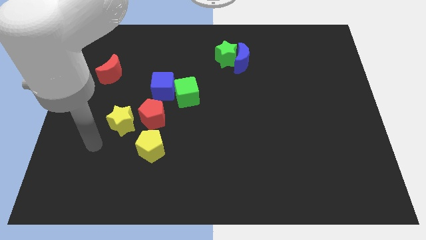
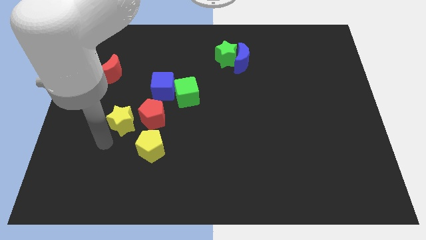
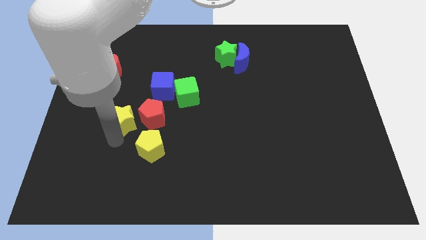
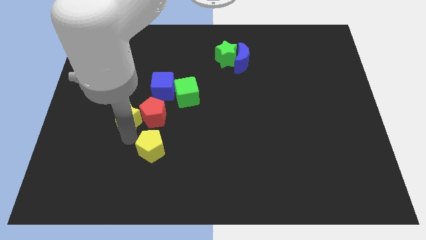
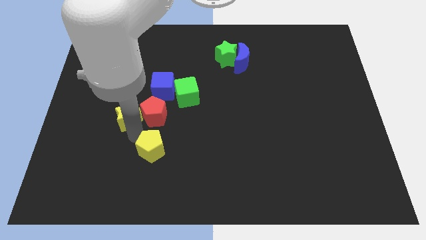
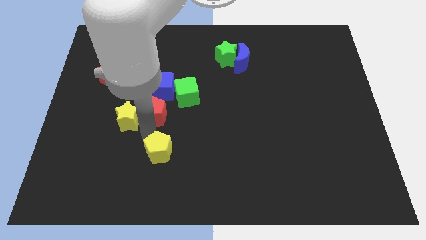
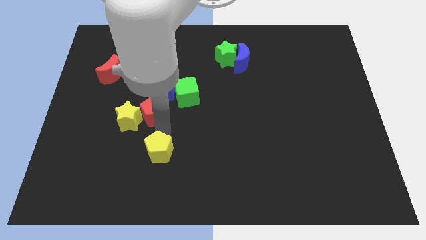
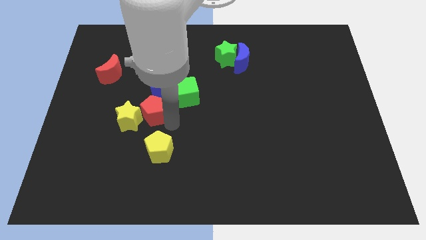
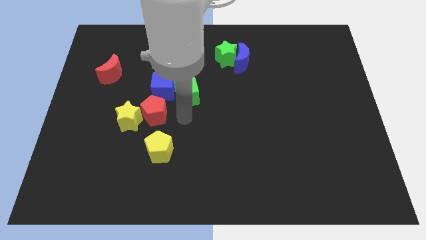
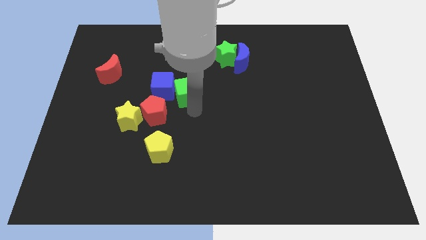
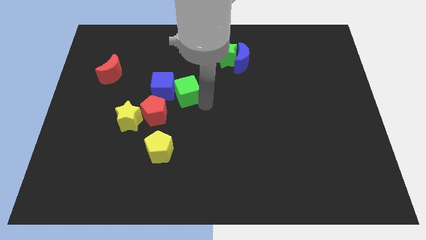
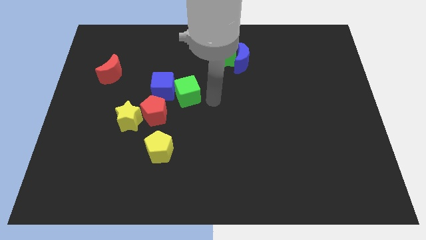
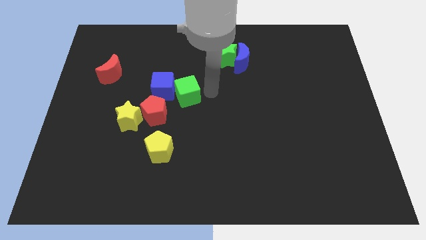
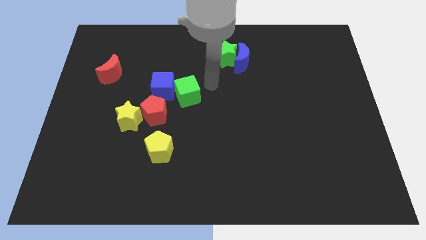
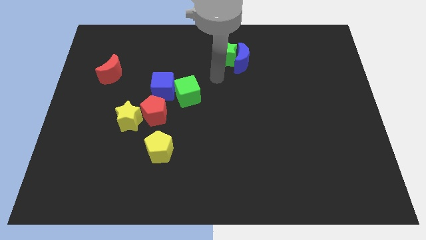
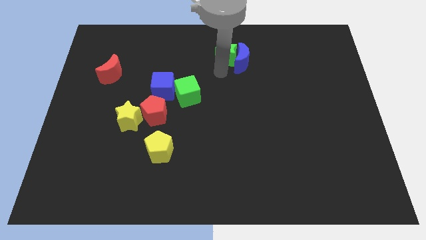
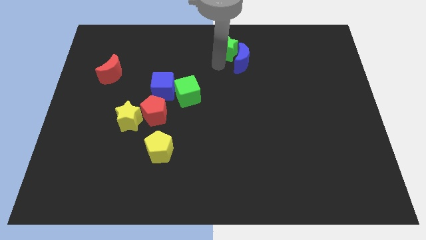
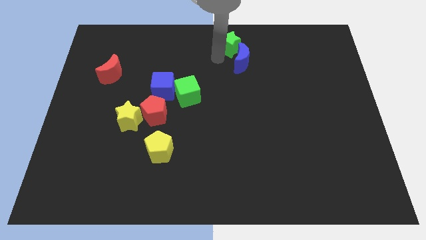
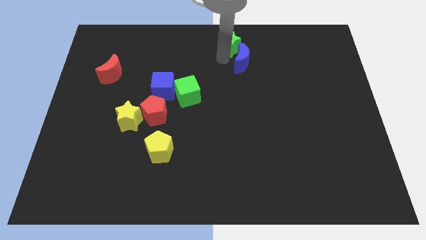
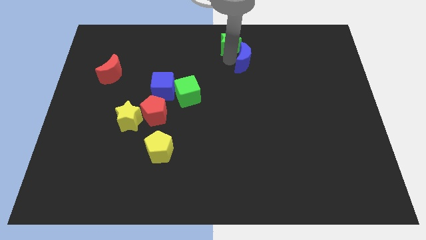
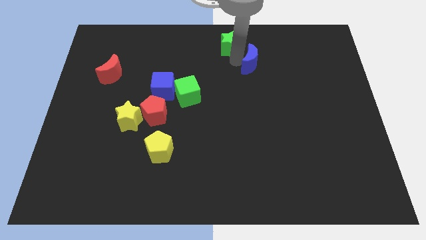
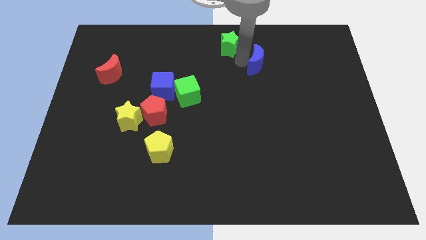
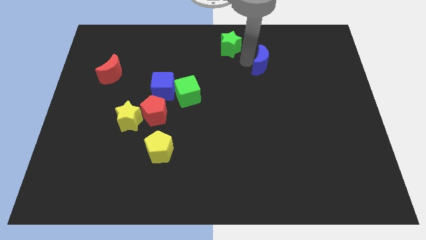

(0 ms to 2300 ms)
move the blue moon away from the green star

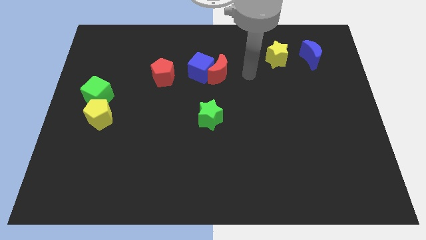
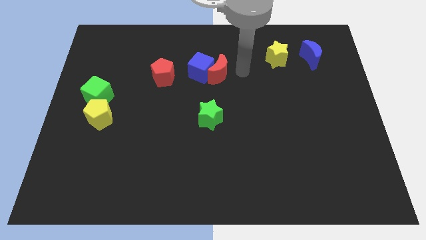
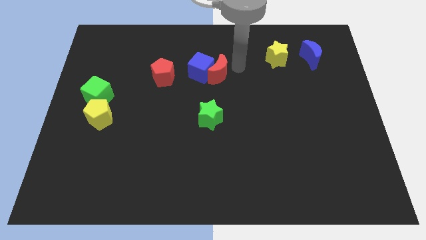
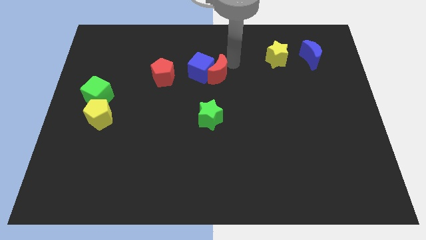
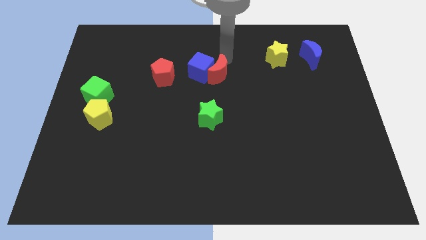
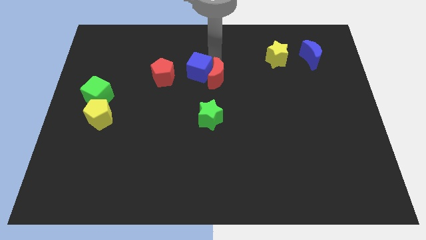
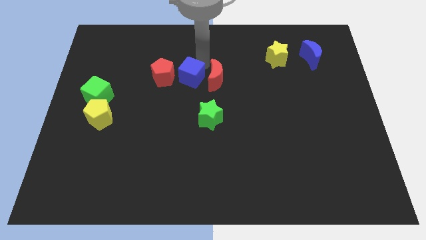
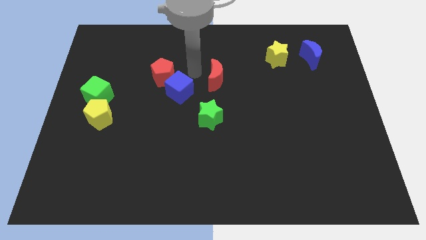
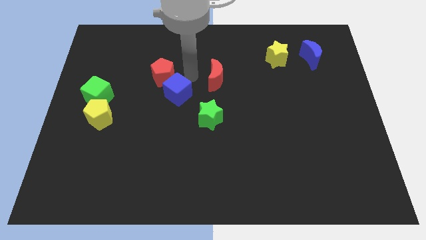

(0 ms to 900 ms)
pull the red moon apart from the blue cube

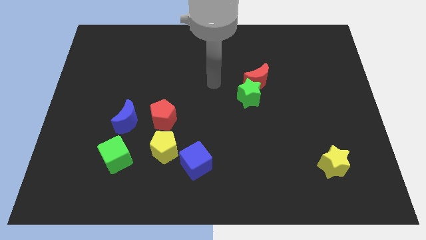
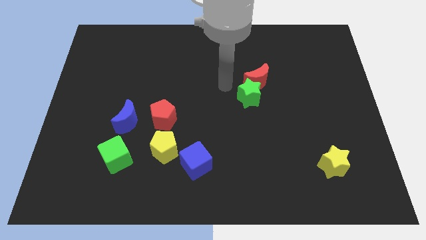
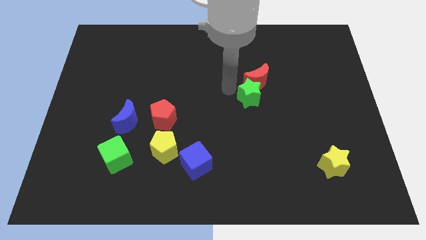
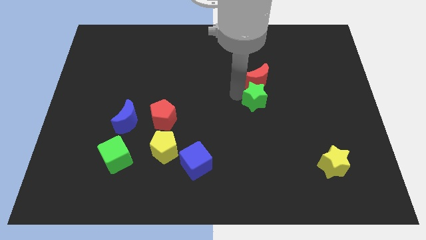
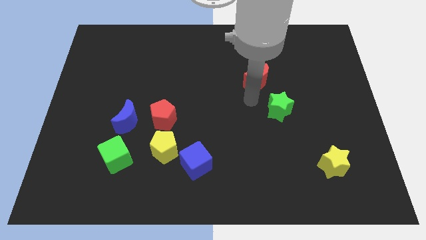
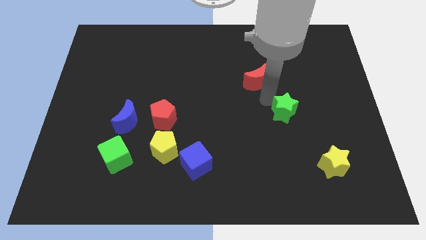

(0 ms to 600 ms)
pull the red moon apart from the green star

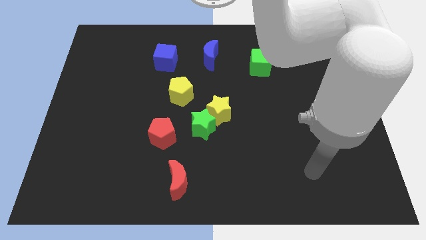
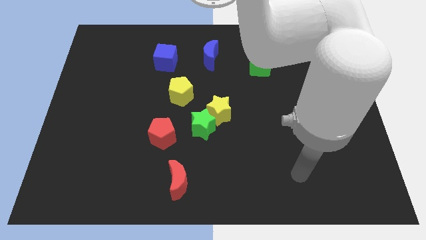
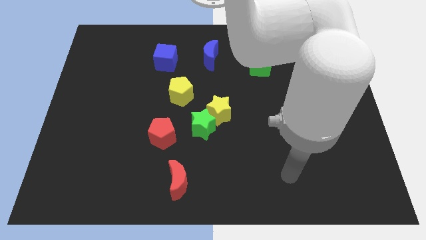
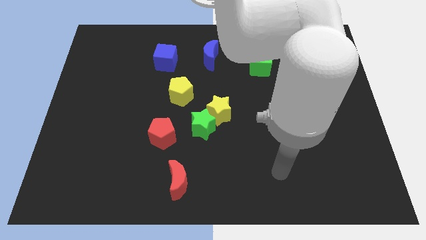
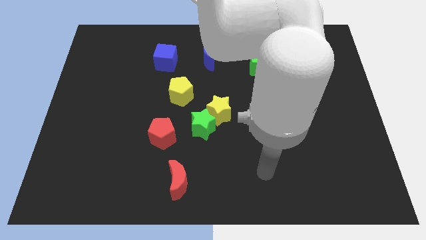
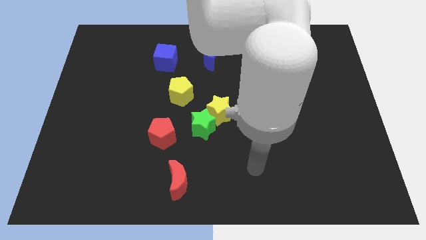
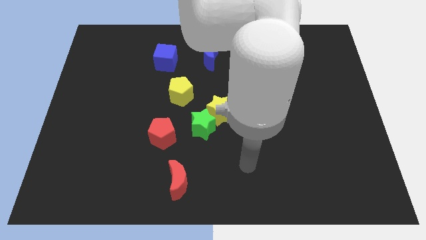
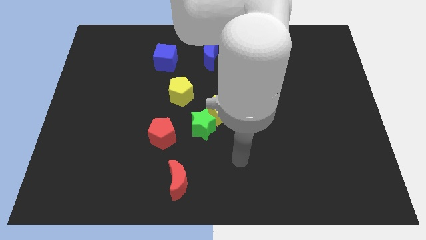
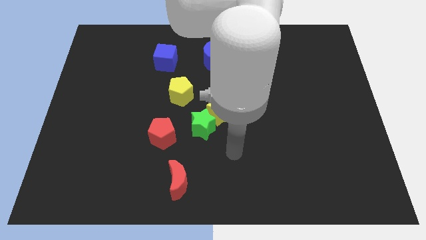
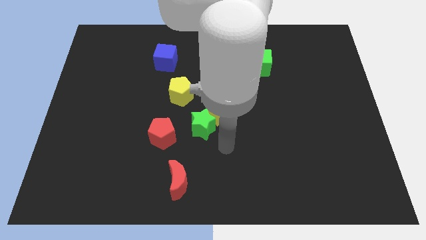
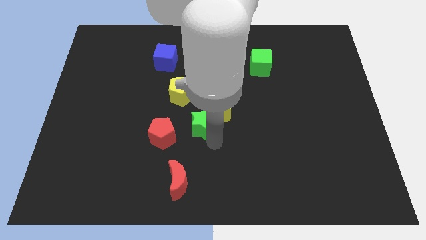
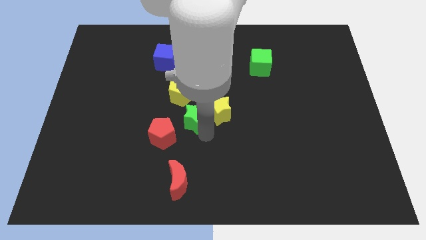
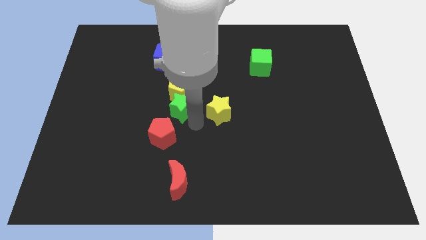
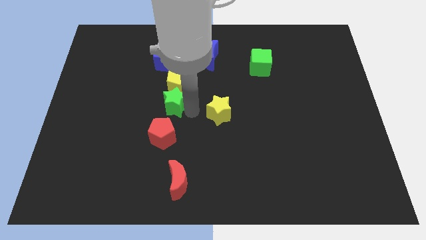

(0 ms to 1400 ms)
pull the yellow star apart from the green star

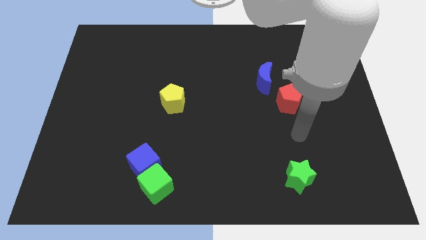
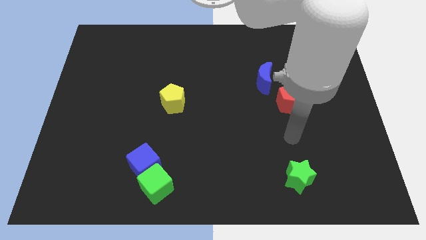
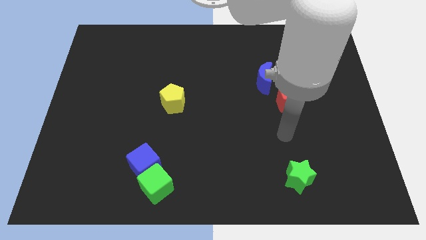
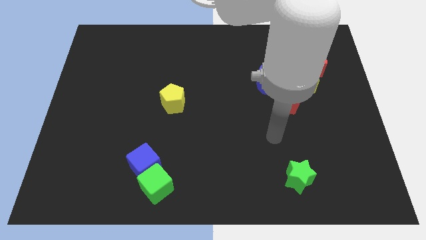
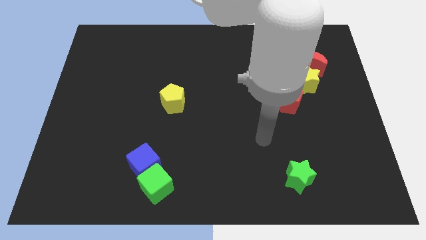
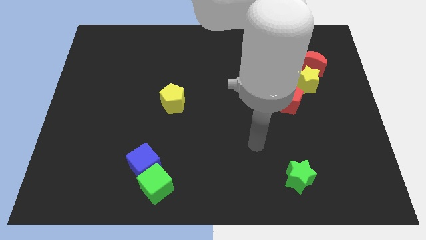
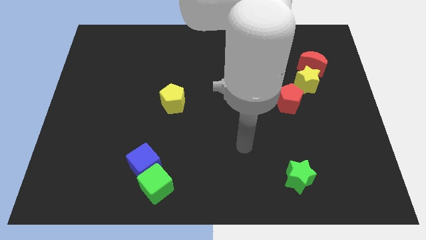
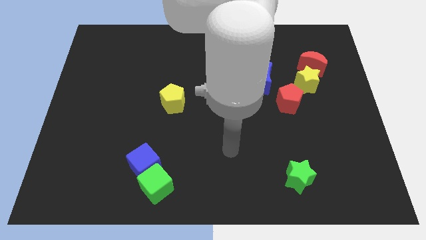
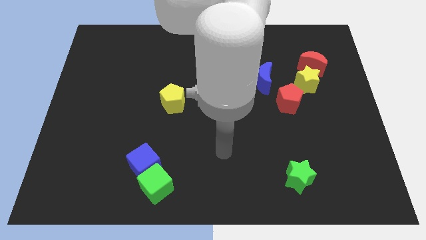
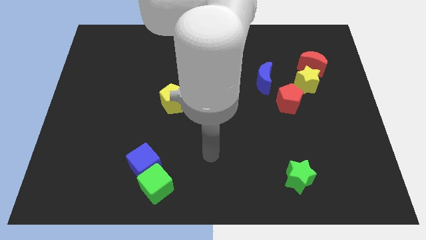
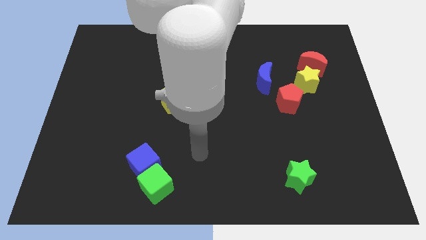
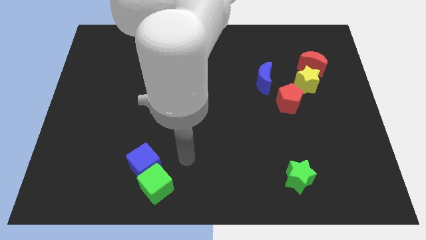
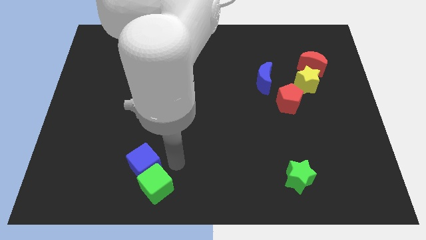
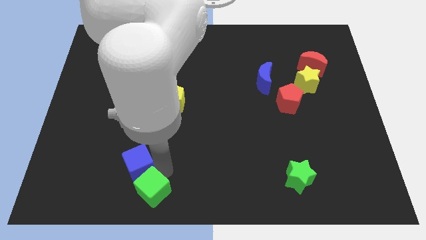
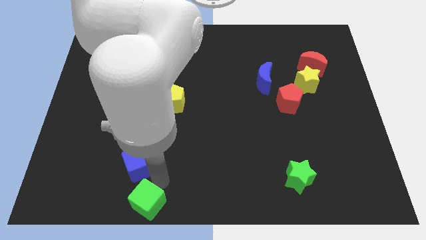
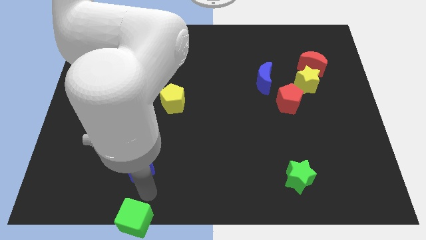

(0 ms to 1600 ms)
move the blue cube away from the green cube

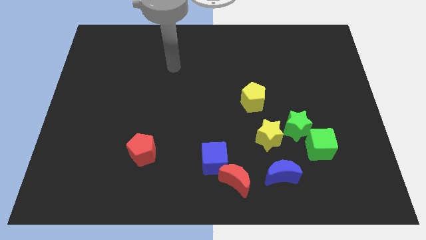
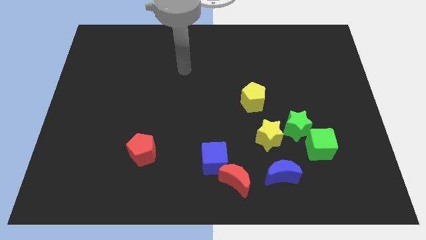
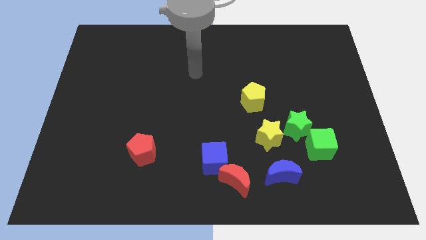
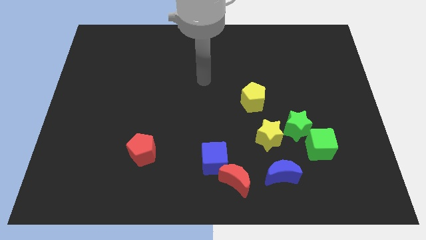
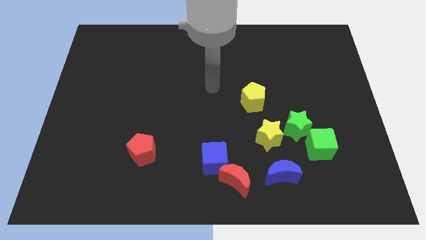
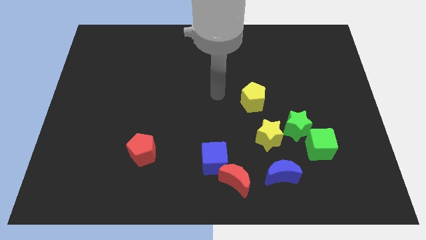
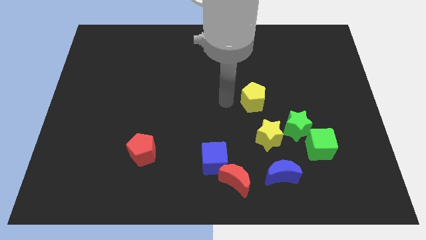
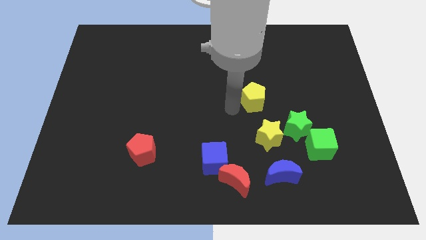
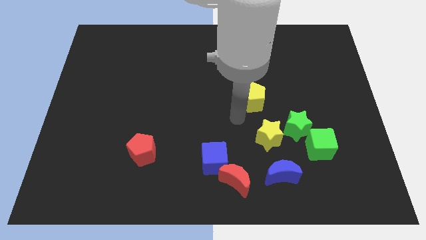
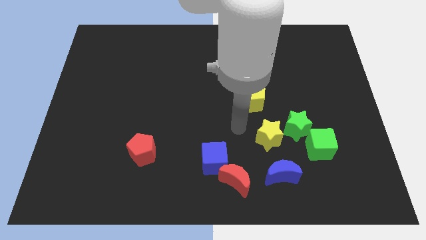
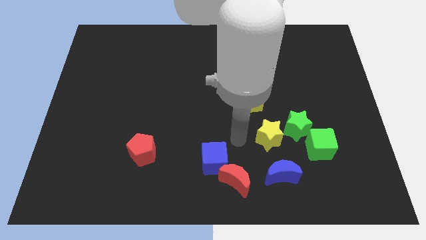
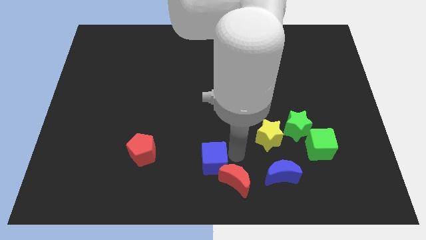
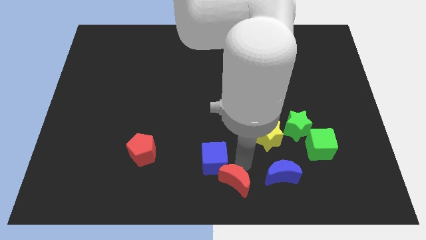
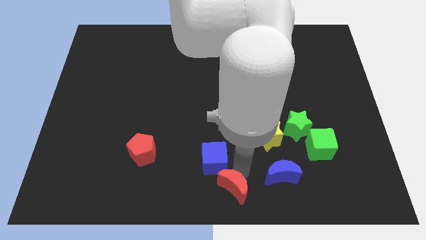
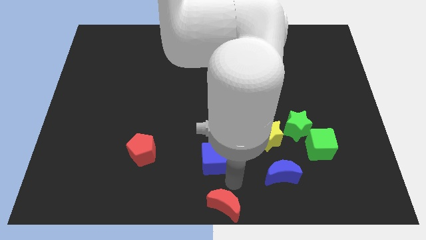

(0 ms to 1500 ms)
move the blue cube away from the red moon

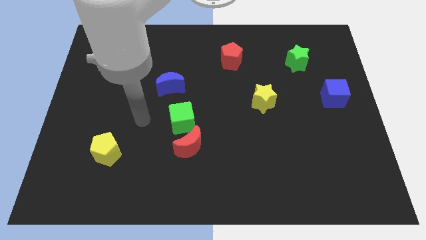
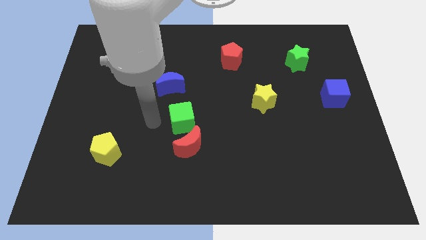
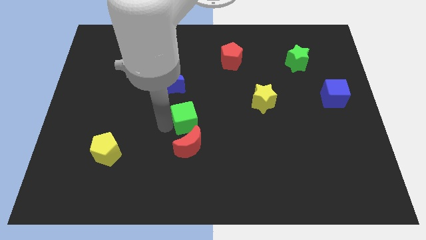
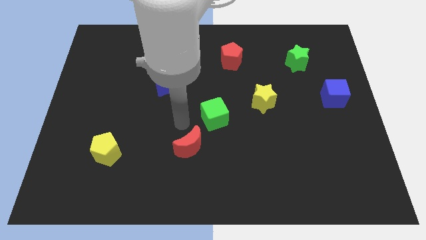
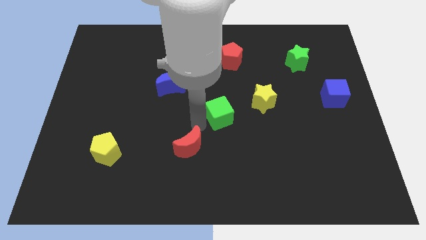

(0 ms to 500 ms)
separate the red moon from the green cube

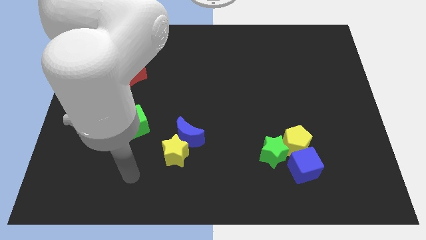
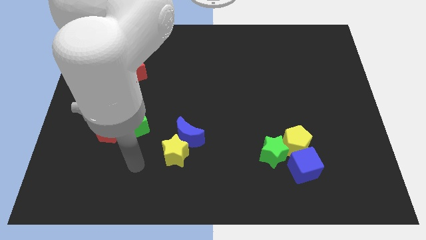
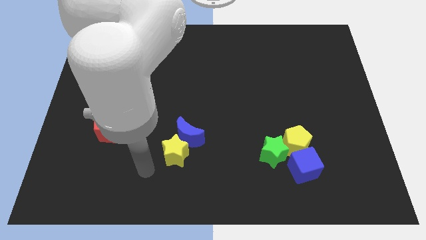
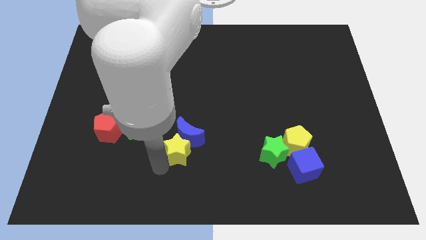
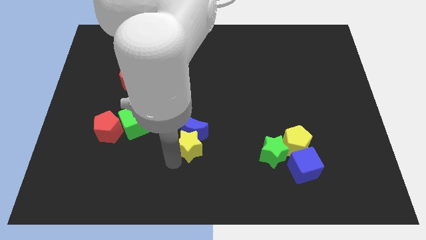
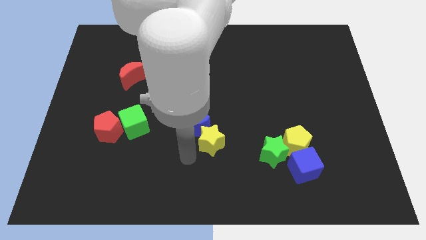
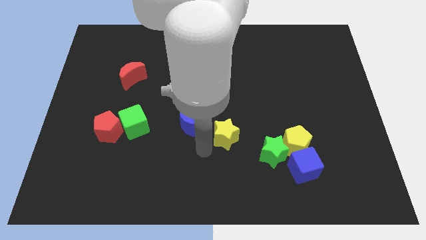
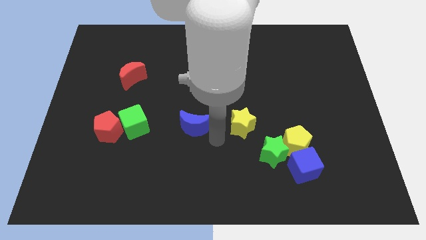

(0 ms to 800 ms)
move the blue moon away from the yellow star
